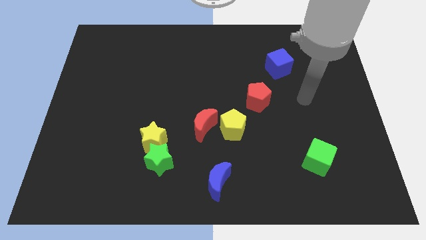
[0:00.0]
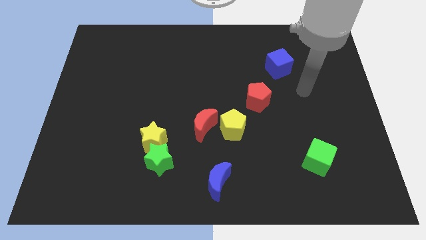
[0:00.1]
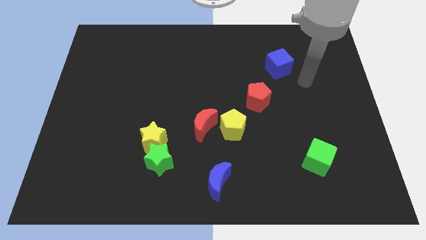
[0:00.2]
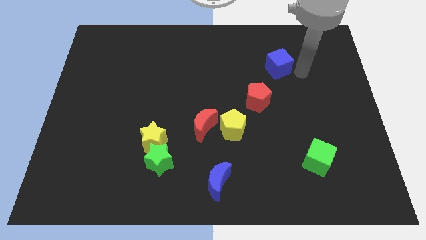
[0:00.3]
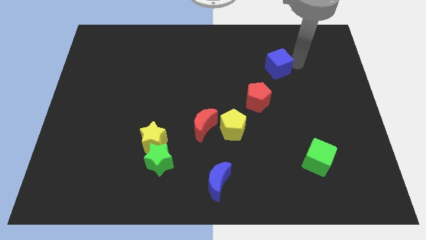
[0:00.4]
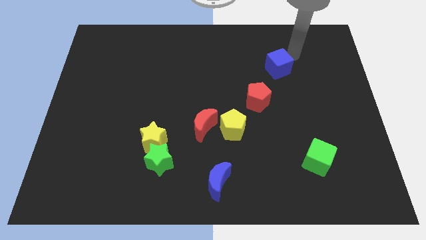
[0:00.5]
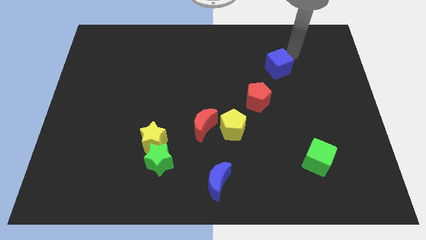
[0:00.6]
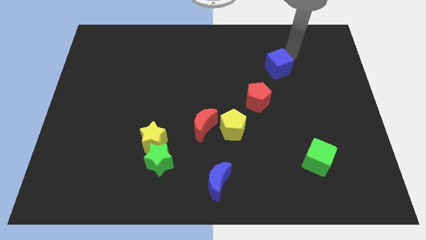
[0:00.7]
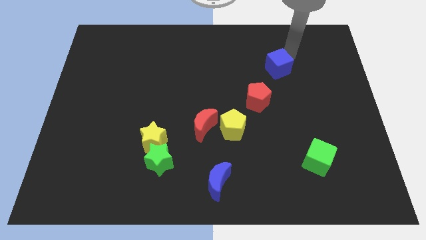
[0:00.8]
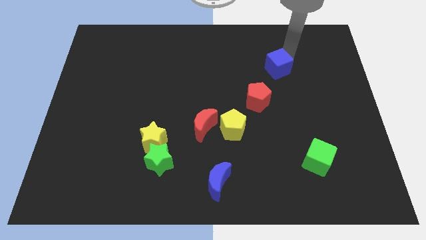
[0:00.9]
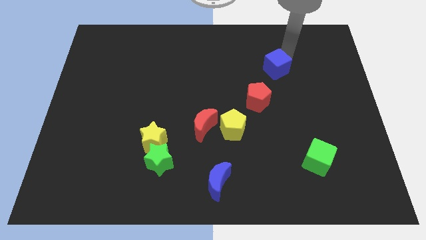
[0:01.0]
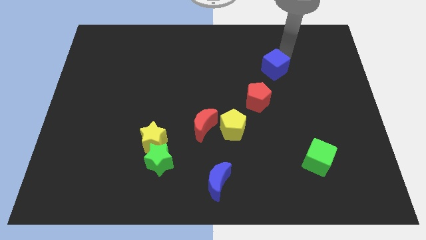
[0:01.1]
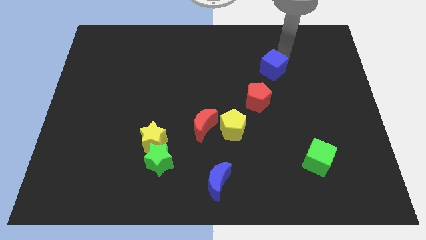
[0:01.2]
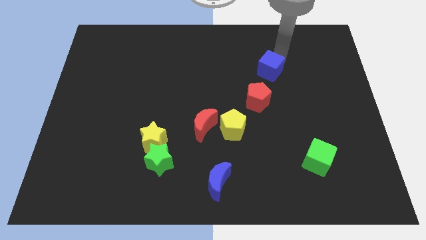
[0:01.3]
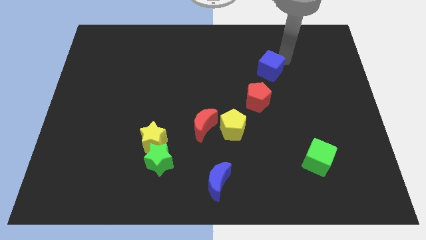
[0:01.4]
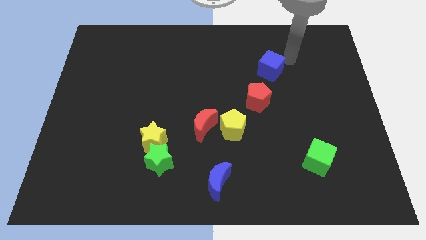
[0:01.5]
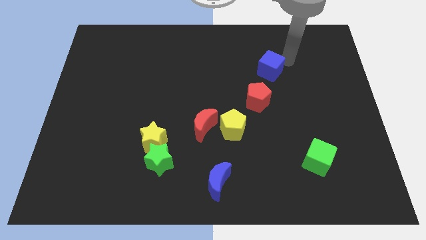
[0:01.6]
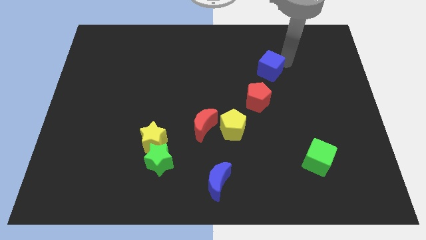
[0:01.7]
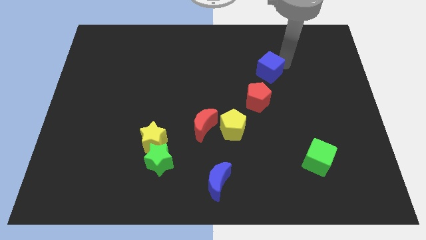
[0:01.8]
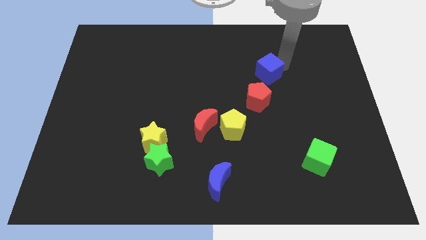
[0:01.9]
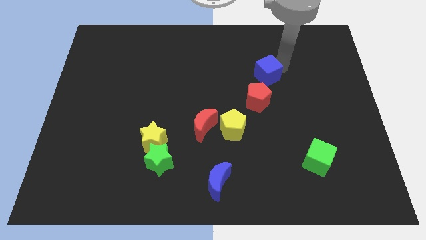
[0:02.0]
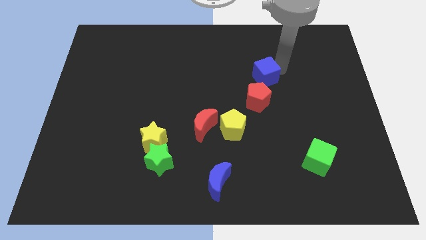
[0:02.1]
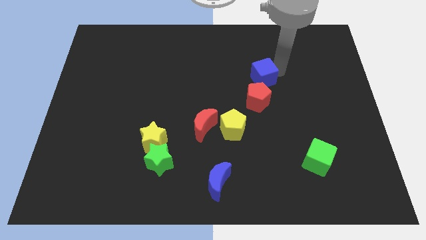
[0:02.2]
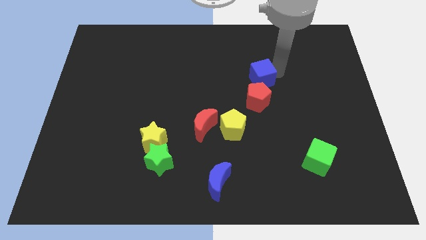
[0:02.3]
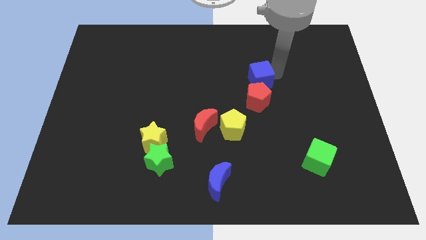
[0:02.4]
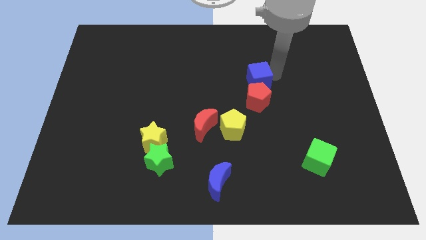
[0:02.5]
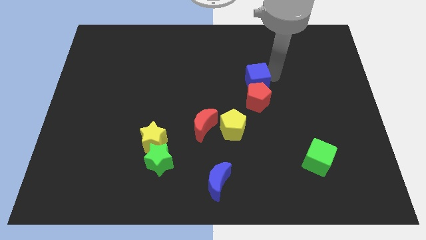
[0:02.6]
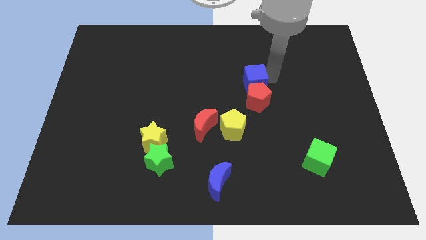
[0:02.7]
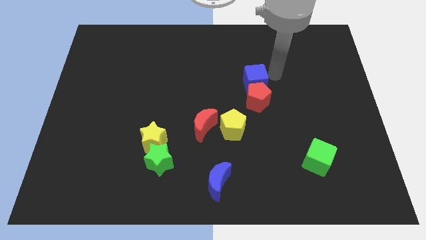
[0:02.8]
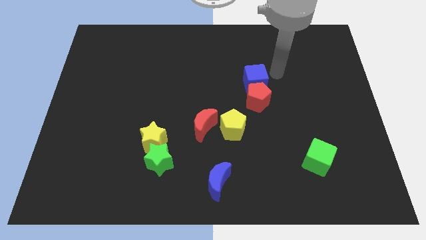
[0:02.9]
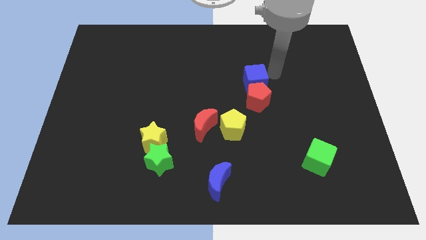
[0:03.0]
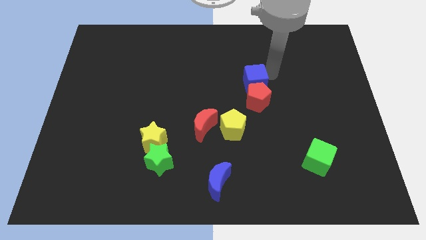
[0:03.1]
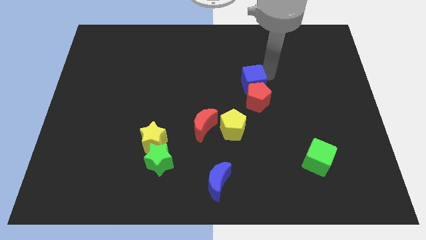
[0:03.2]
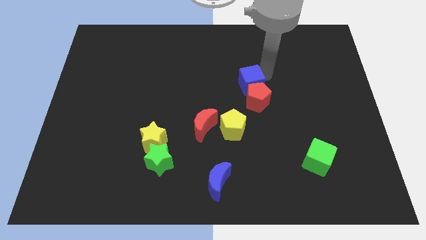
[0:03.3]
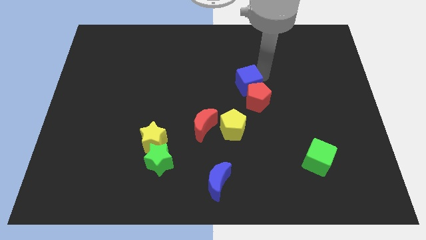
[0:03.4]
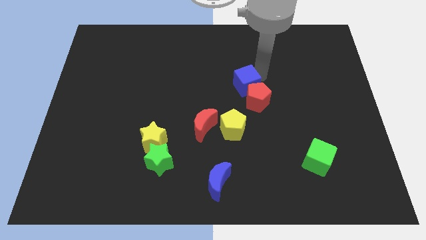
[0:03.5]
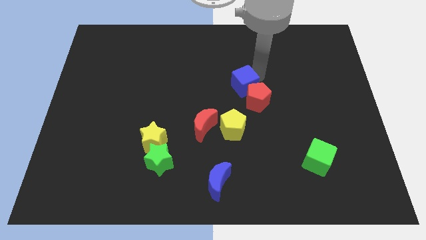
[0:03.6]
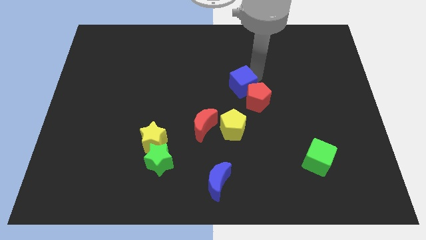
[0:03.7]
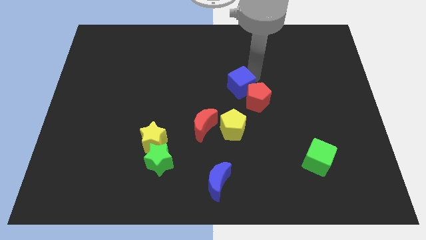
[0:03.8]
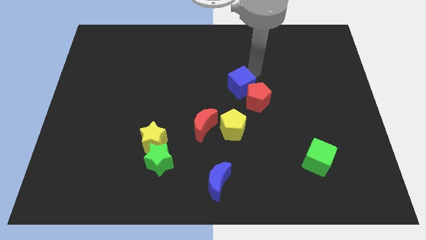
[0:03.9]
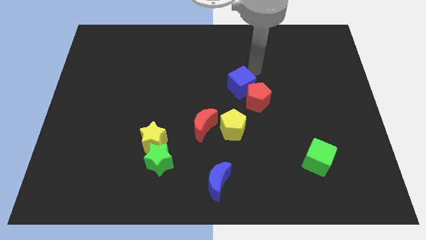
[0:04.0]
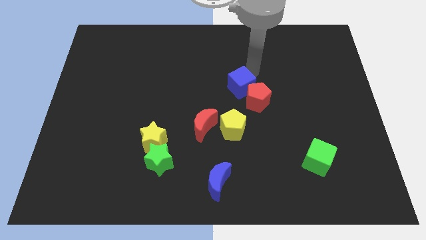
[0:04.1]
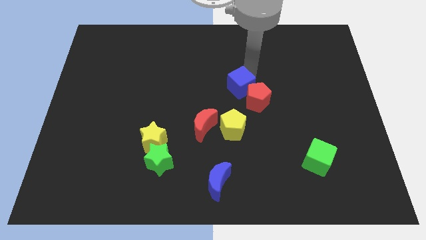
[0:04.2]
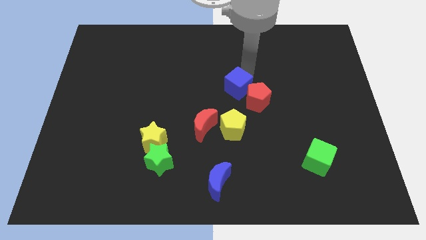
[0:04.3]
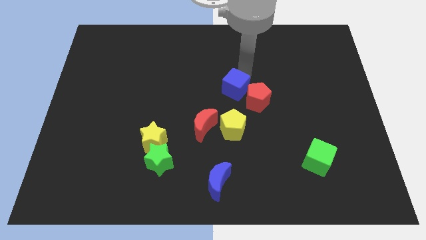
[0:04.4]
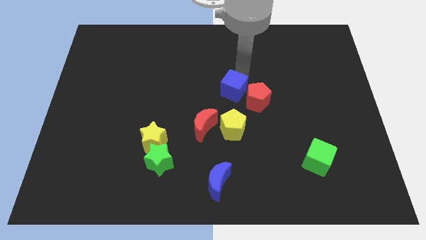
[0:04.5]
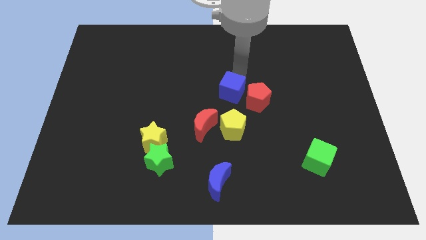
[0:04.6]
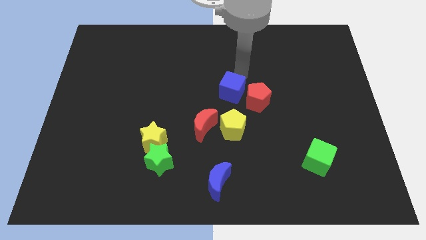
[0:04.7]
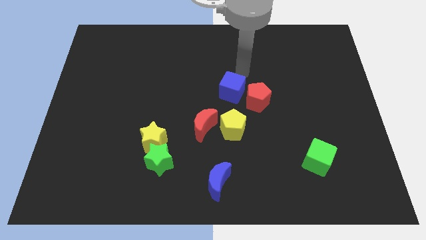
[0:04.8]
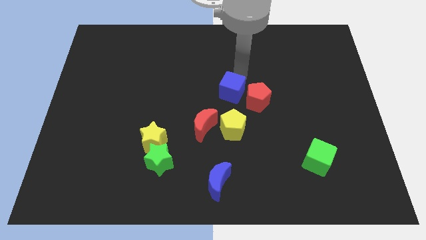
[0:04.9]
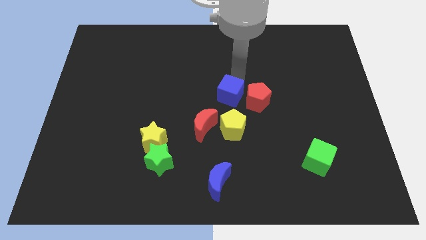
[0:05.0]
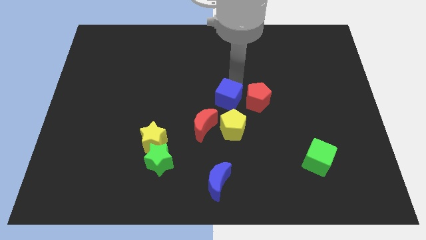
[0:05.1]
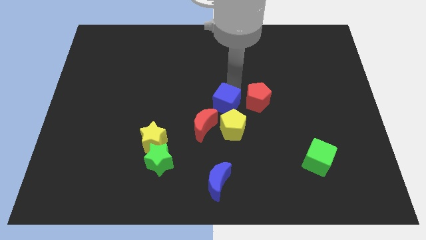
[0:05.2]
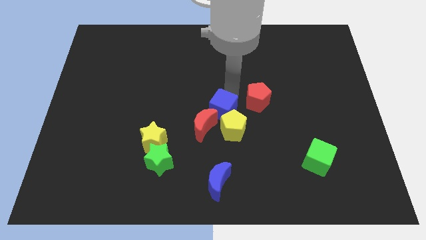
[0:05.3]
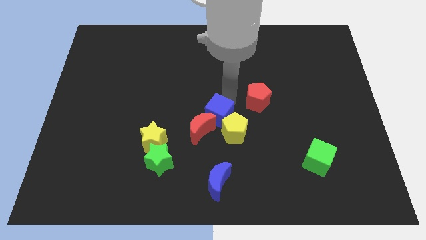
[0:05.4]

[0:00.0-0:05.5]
put the blue cube close to the red moon

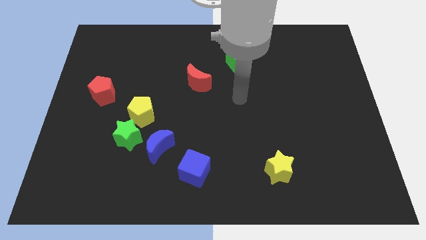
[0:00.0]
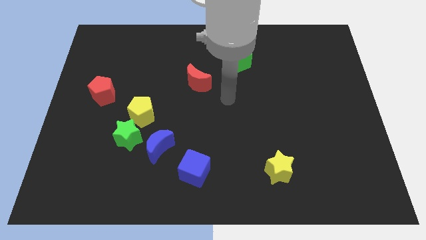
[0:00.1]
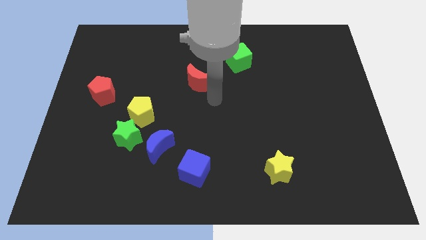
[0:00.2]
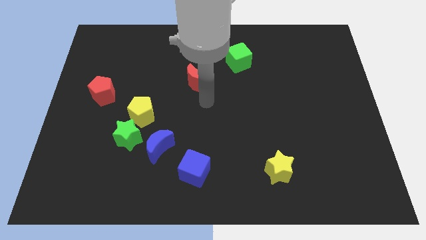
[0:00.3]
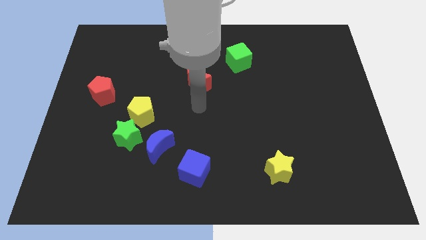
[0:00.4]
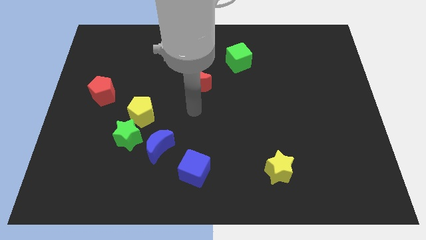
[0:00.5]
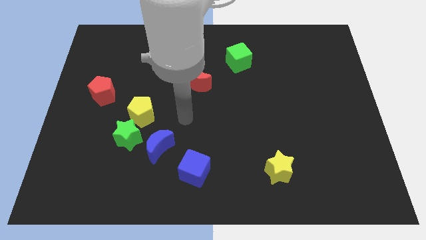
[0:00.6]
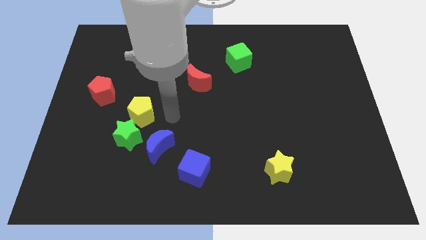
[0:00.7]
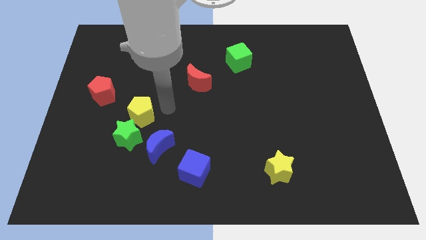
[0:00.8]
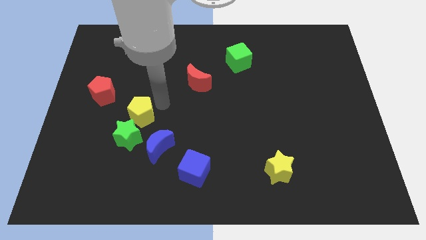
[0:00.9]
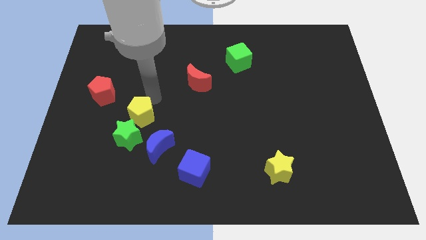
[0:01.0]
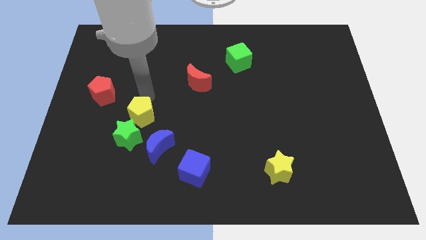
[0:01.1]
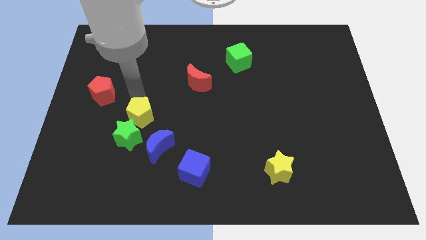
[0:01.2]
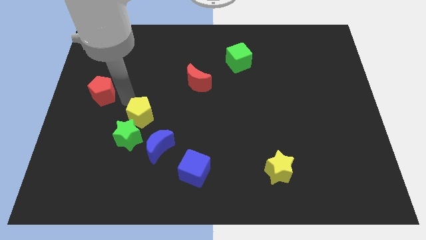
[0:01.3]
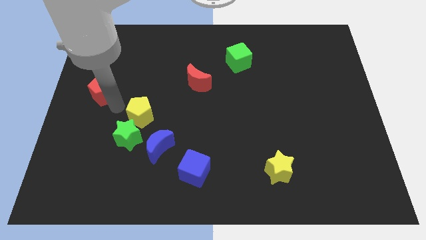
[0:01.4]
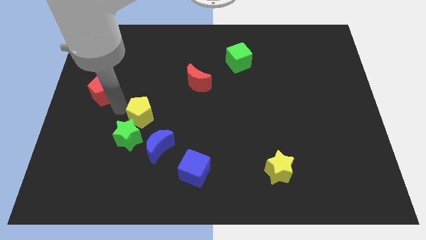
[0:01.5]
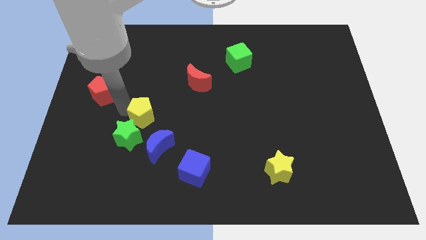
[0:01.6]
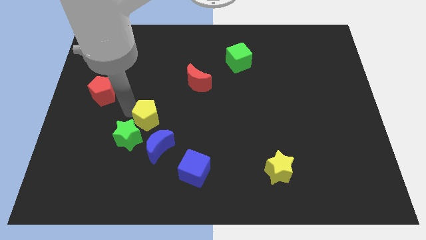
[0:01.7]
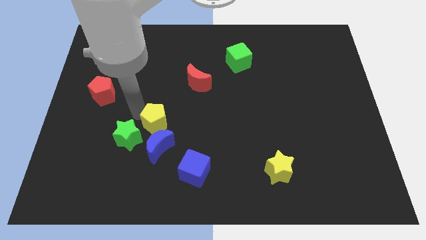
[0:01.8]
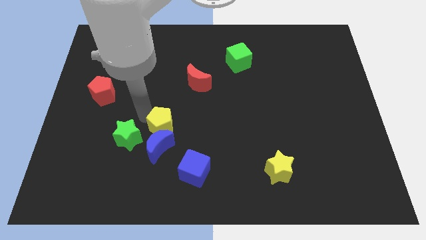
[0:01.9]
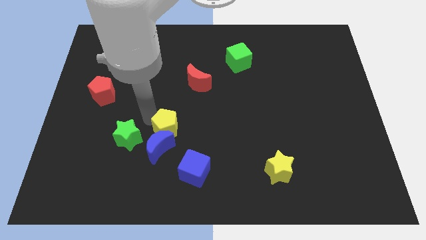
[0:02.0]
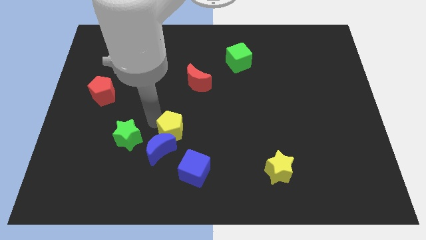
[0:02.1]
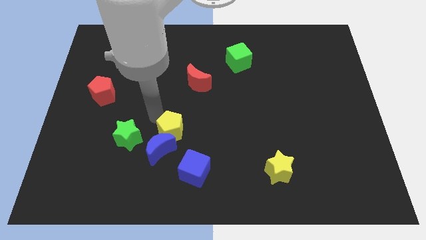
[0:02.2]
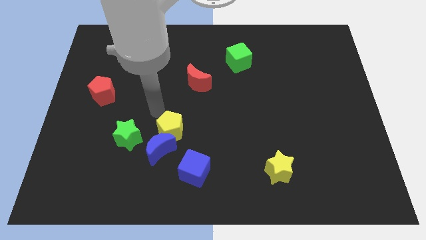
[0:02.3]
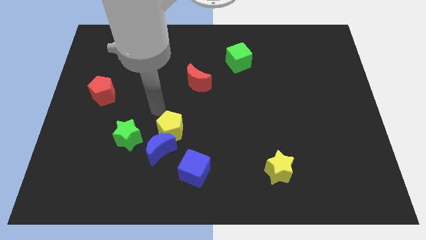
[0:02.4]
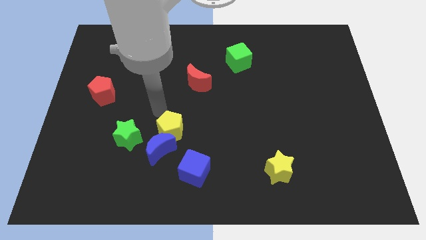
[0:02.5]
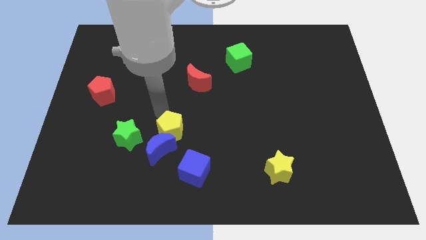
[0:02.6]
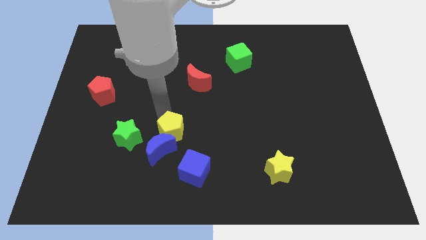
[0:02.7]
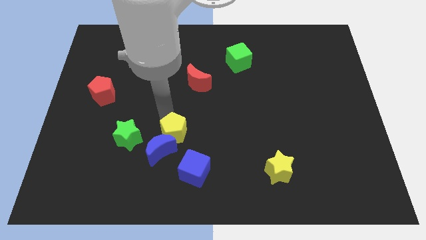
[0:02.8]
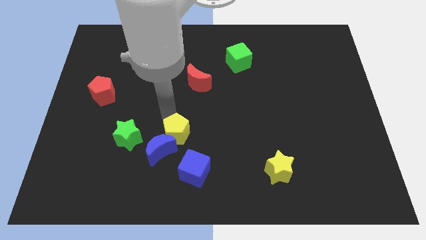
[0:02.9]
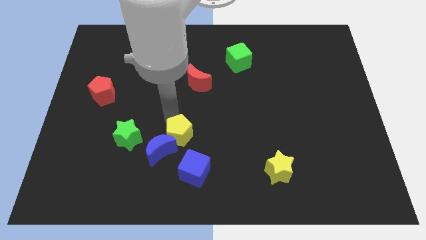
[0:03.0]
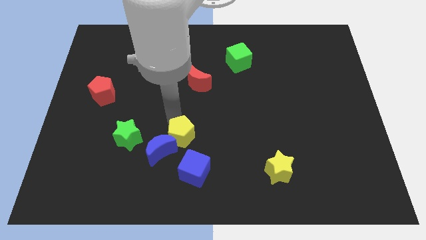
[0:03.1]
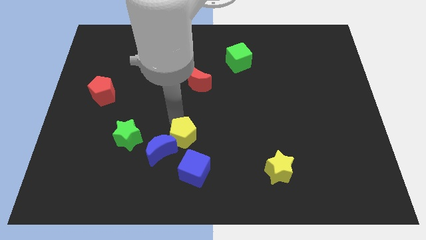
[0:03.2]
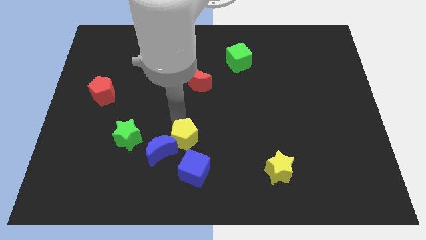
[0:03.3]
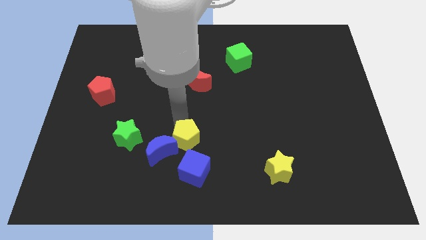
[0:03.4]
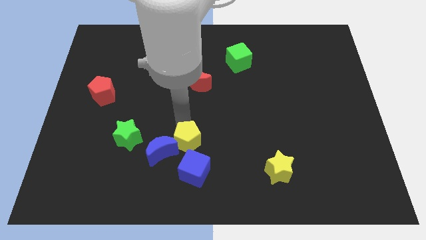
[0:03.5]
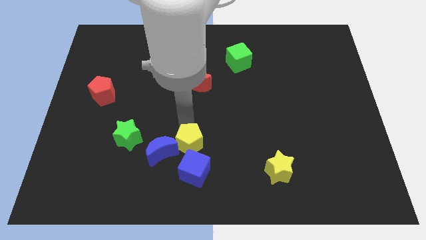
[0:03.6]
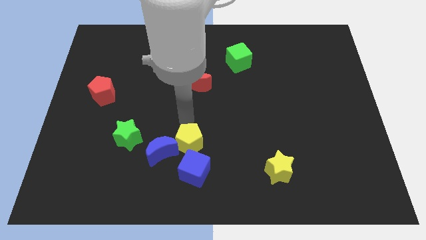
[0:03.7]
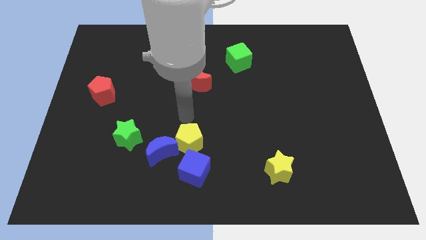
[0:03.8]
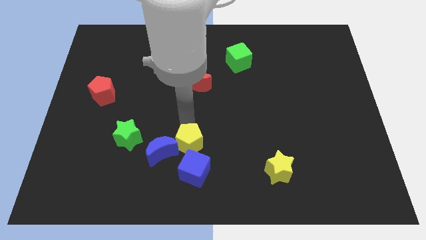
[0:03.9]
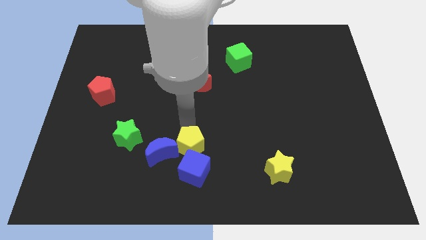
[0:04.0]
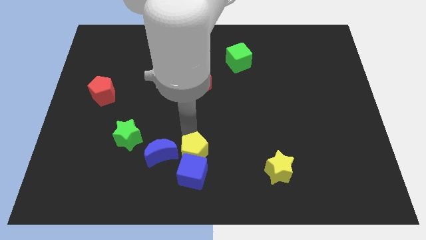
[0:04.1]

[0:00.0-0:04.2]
push the yellow pentagon next to the blue cube
